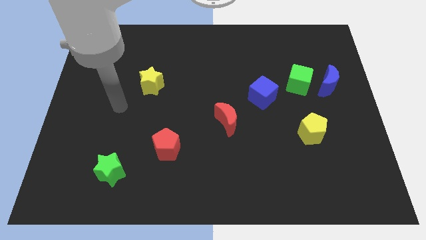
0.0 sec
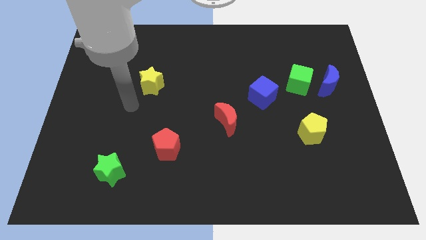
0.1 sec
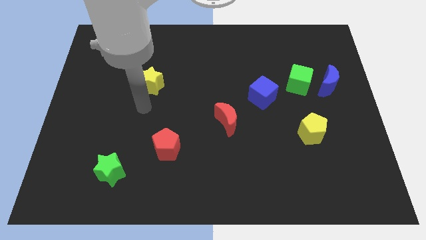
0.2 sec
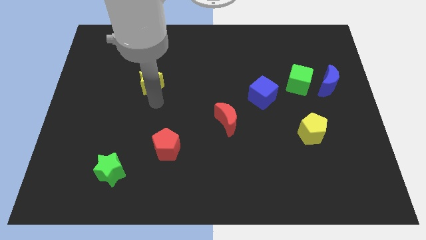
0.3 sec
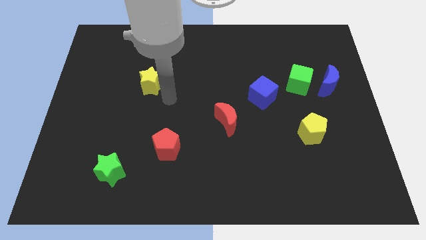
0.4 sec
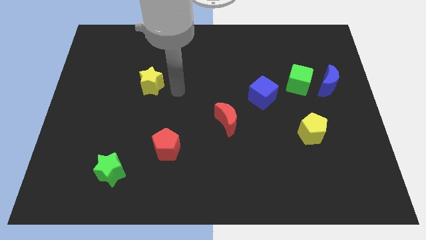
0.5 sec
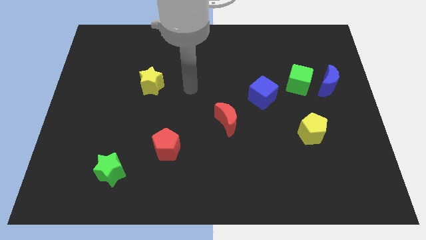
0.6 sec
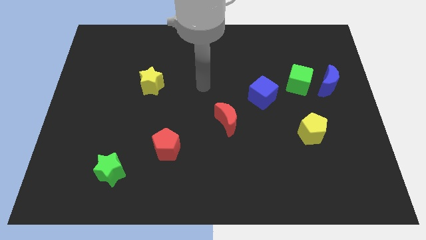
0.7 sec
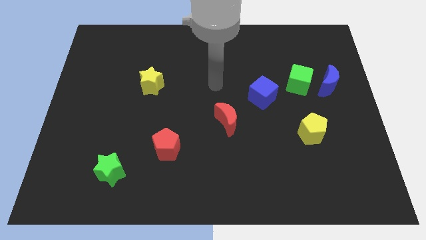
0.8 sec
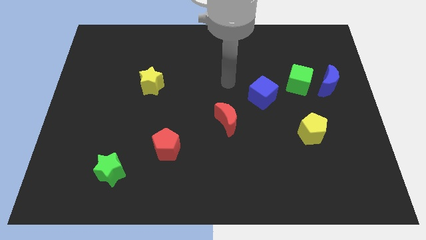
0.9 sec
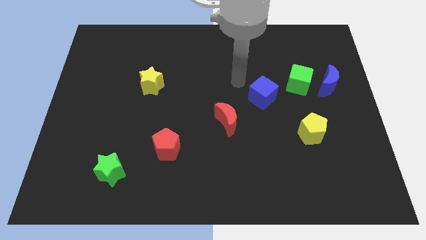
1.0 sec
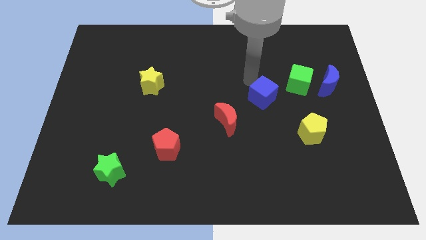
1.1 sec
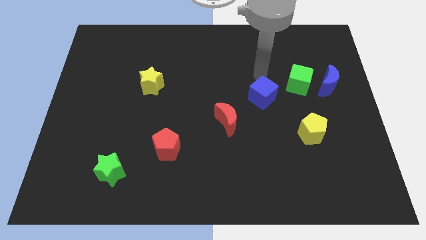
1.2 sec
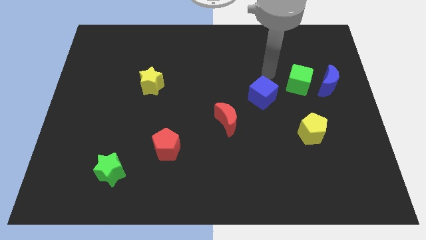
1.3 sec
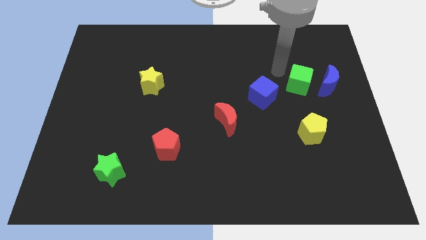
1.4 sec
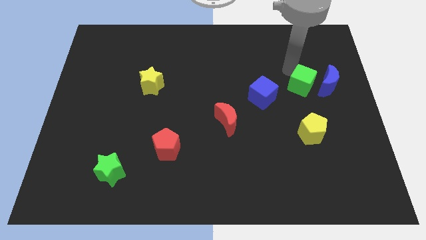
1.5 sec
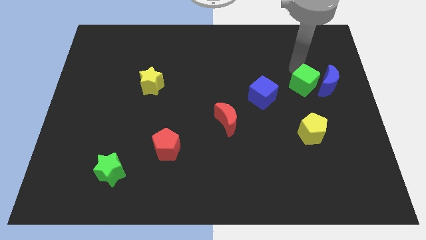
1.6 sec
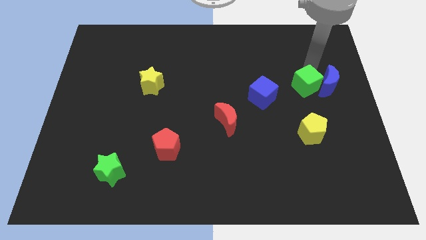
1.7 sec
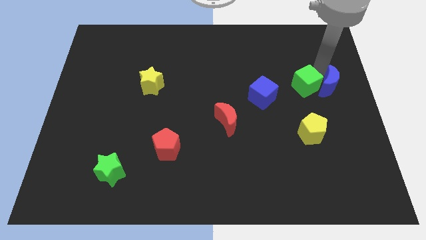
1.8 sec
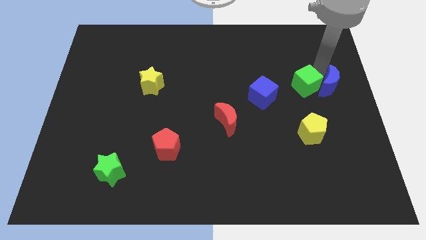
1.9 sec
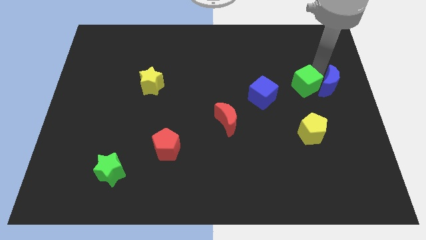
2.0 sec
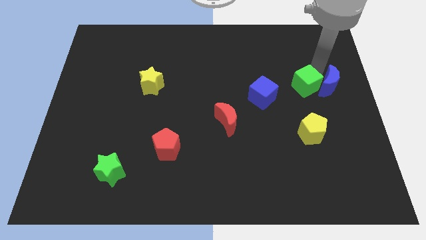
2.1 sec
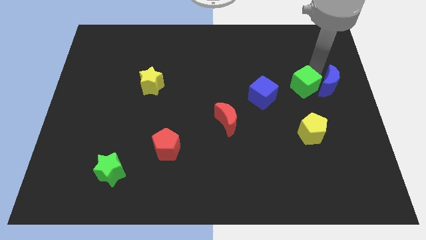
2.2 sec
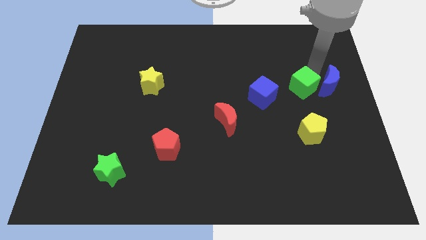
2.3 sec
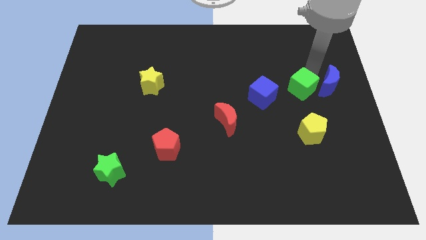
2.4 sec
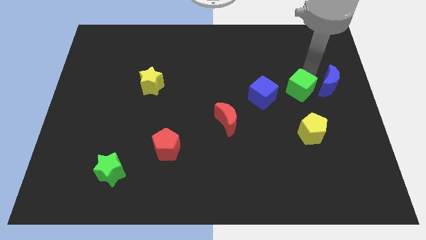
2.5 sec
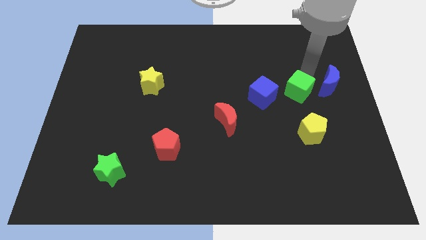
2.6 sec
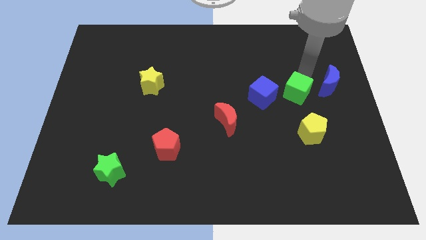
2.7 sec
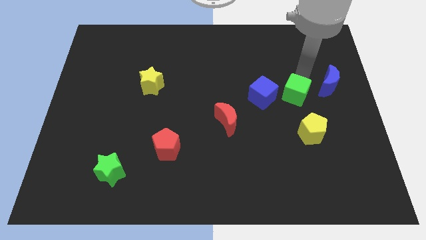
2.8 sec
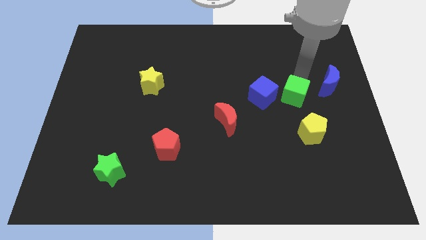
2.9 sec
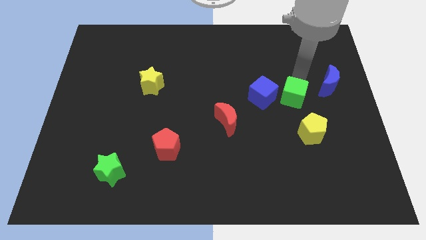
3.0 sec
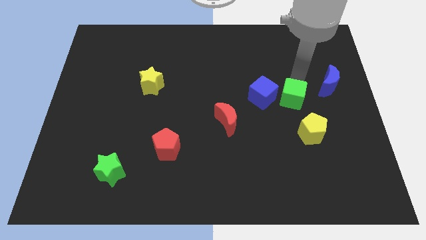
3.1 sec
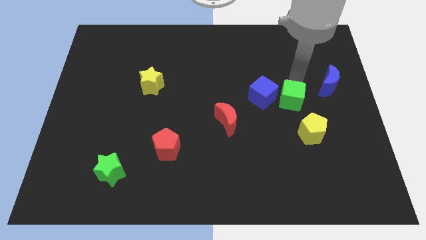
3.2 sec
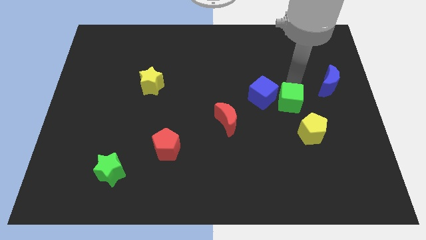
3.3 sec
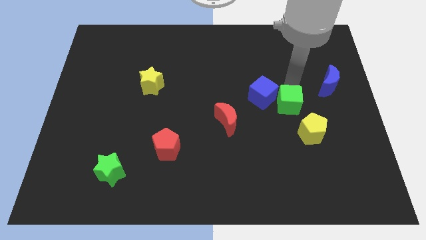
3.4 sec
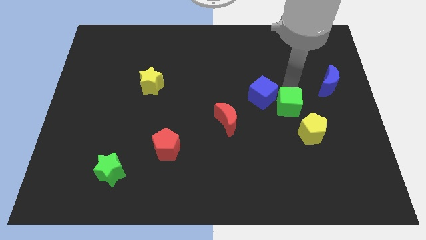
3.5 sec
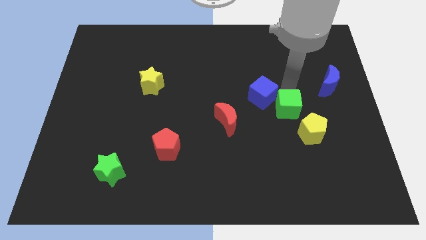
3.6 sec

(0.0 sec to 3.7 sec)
move the green cube downwards a bit

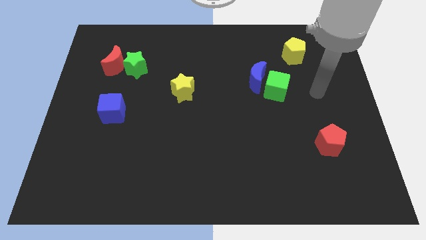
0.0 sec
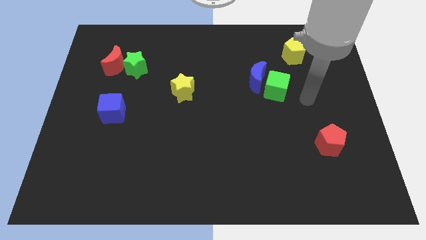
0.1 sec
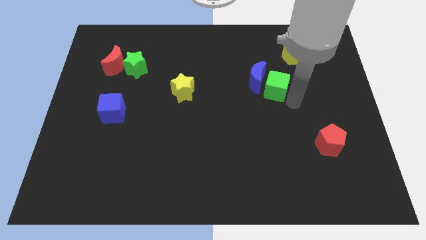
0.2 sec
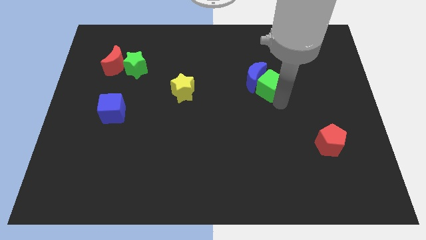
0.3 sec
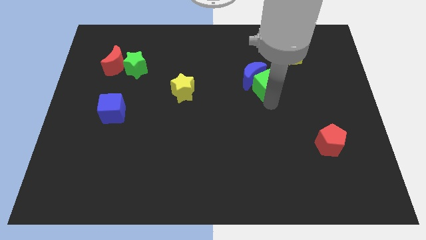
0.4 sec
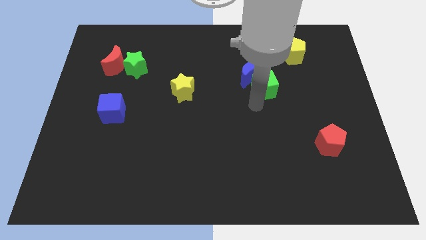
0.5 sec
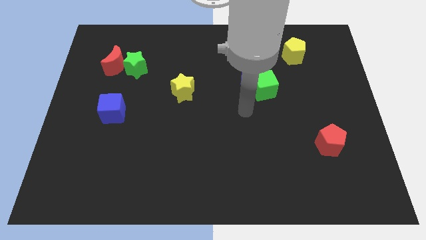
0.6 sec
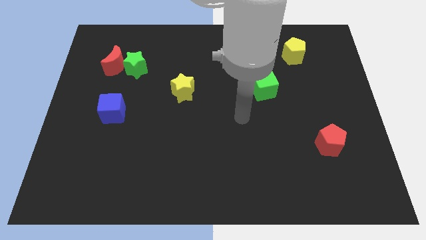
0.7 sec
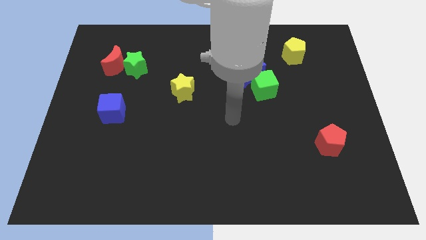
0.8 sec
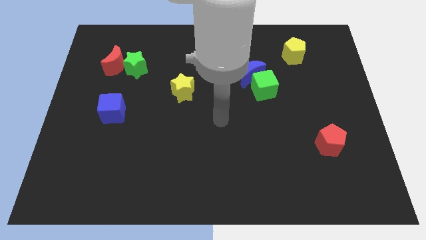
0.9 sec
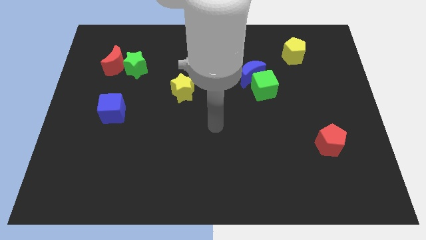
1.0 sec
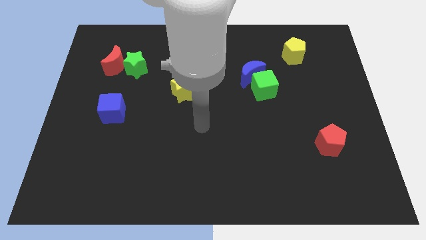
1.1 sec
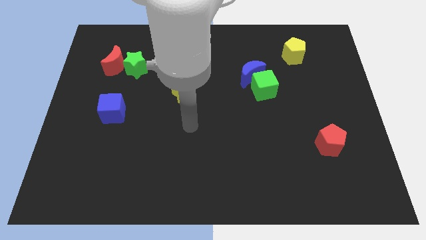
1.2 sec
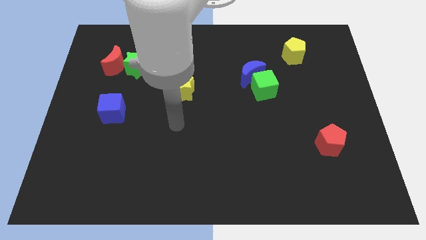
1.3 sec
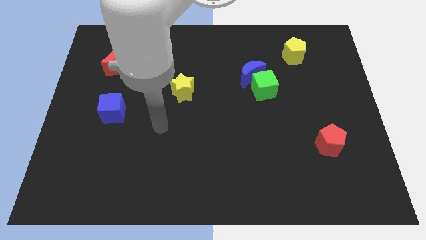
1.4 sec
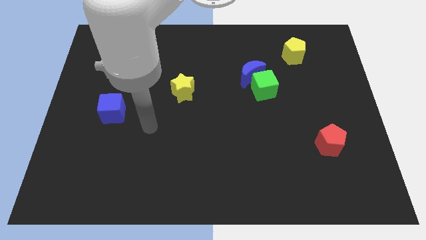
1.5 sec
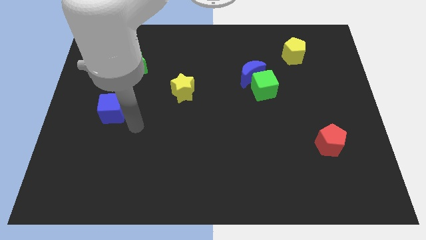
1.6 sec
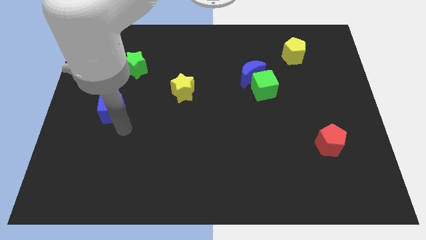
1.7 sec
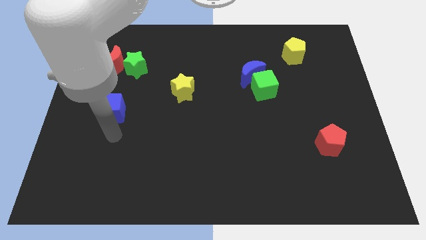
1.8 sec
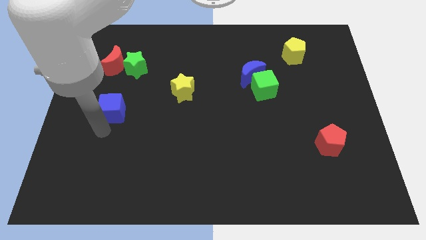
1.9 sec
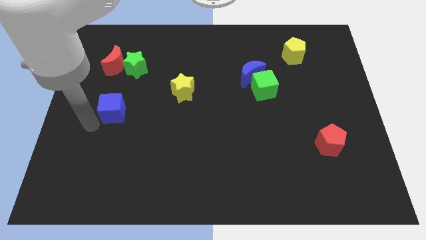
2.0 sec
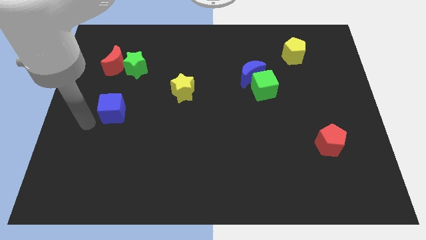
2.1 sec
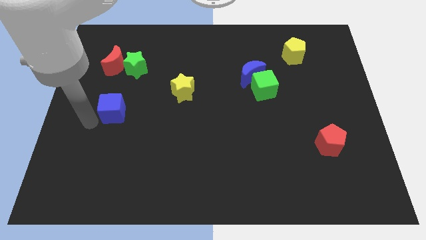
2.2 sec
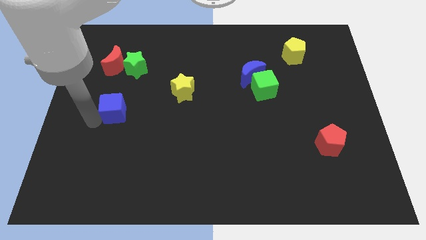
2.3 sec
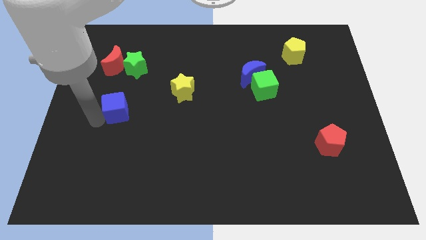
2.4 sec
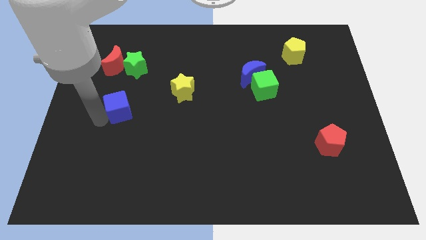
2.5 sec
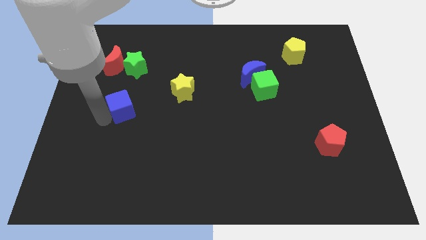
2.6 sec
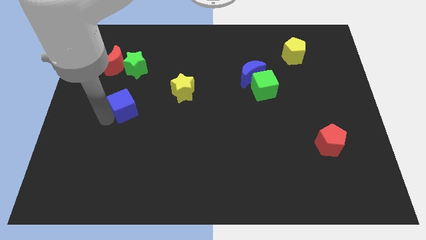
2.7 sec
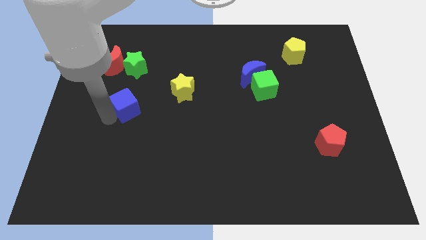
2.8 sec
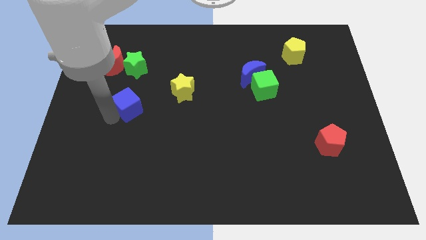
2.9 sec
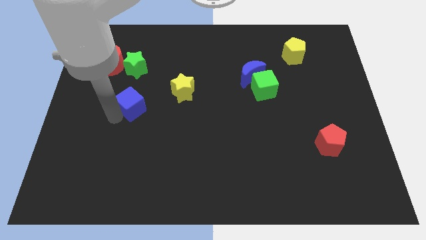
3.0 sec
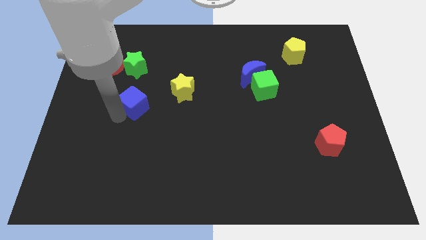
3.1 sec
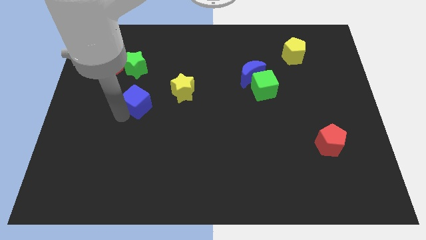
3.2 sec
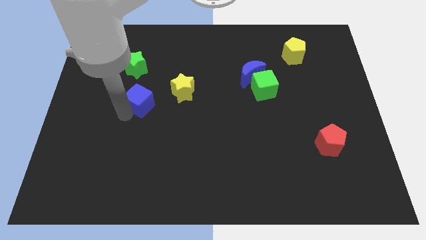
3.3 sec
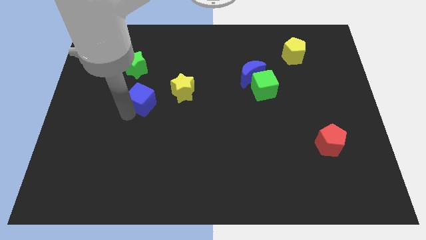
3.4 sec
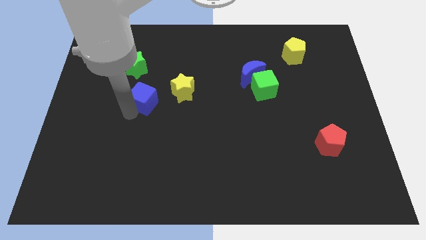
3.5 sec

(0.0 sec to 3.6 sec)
move the blue cube a little upwards and then right

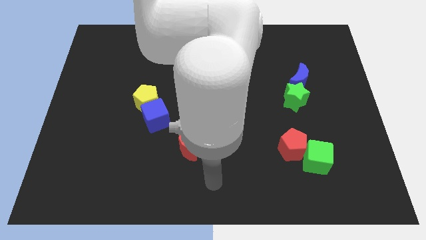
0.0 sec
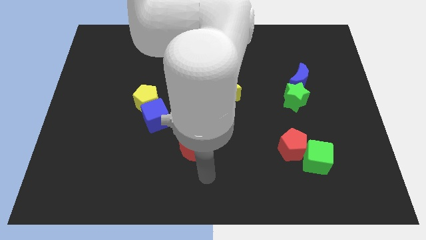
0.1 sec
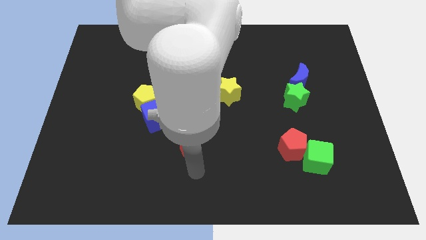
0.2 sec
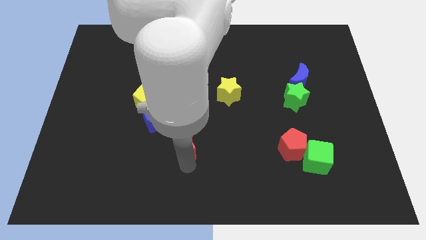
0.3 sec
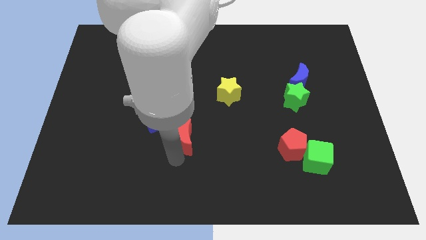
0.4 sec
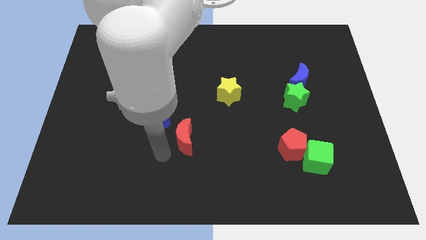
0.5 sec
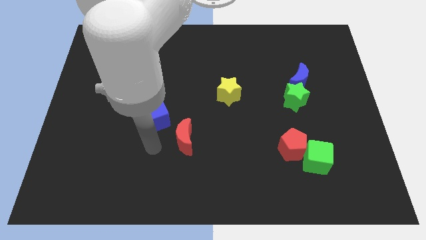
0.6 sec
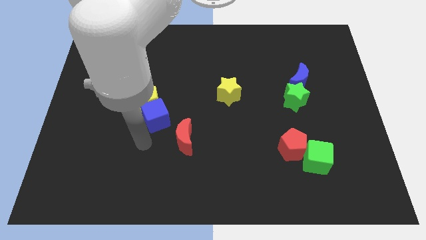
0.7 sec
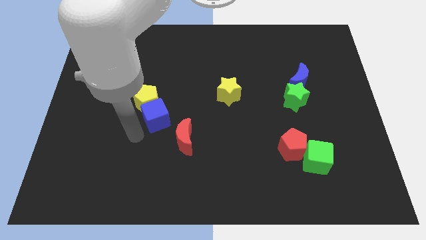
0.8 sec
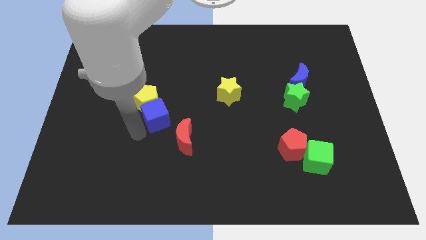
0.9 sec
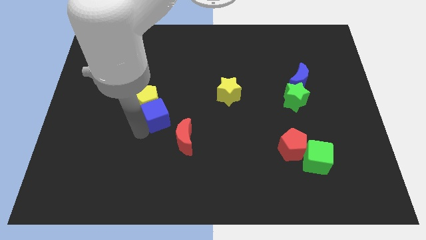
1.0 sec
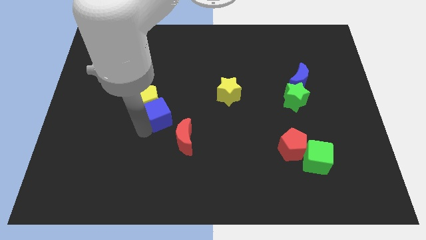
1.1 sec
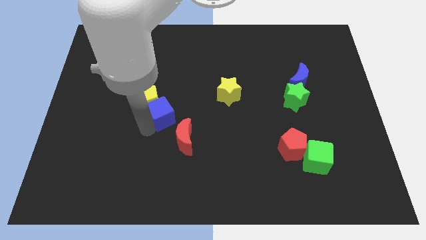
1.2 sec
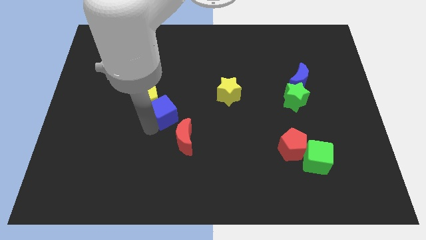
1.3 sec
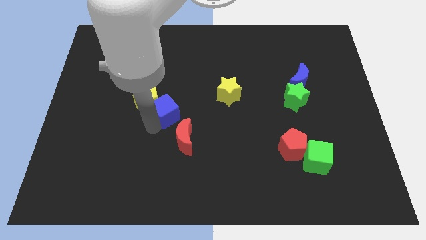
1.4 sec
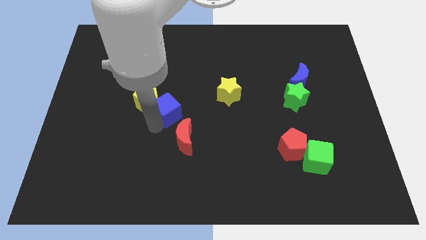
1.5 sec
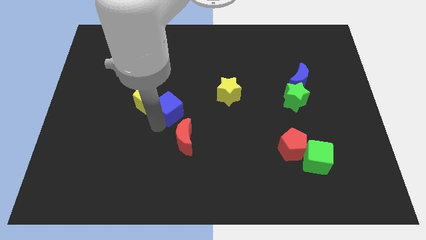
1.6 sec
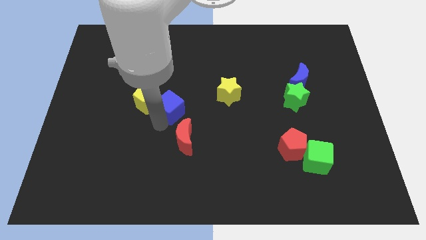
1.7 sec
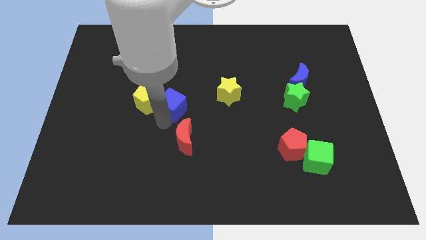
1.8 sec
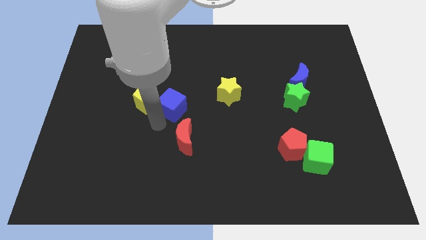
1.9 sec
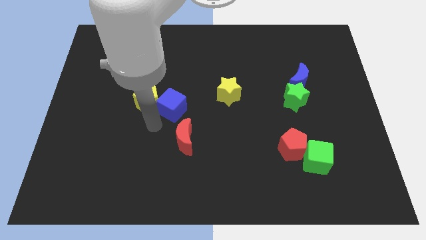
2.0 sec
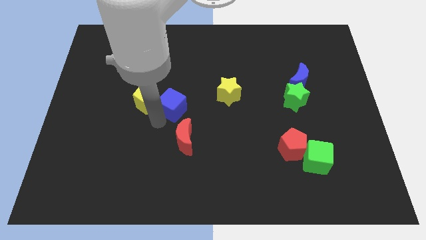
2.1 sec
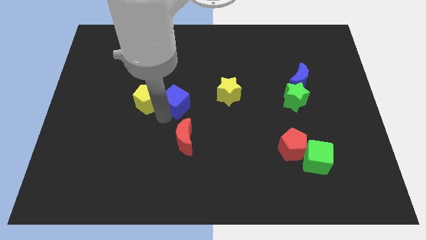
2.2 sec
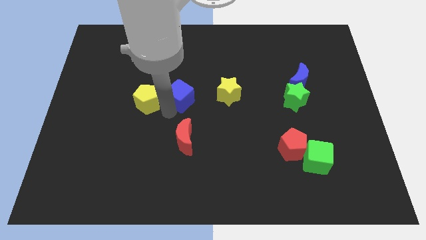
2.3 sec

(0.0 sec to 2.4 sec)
push the blue cube up and to the right diagonally a little bit
